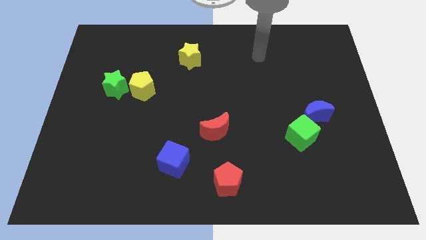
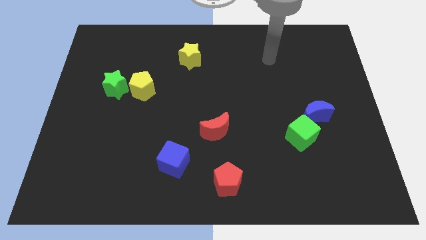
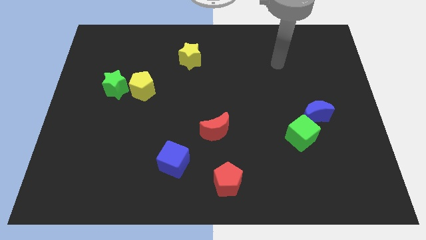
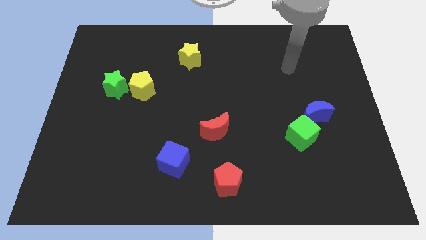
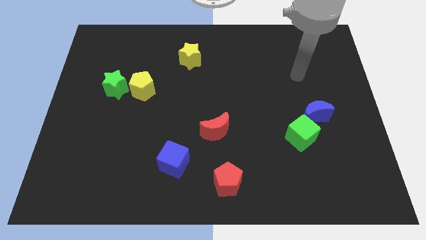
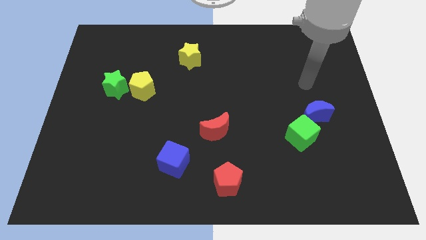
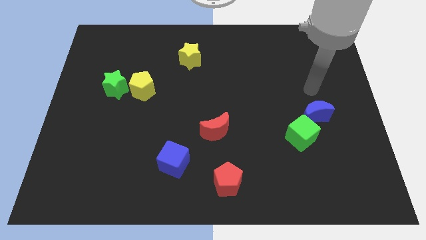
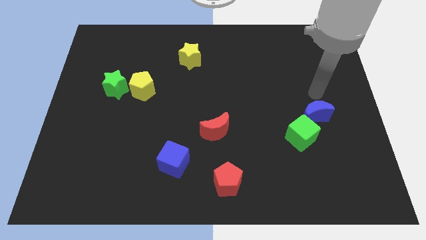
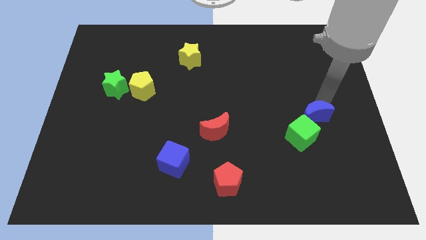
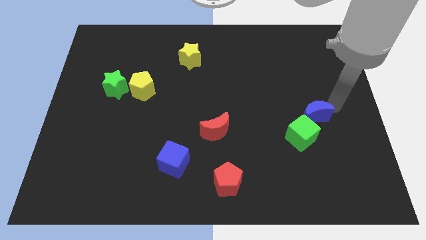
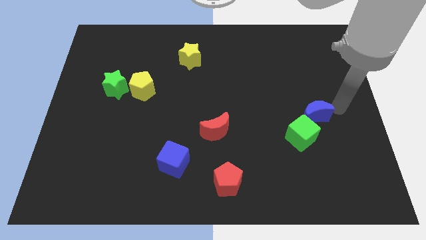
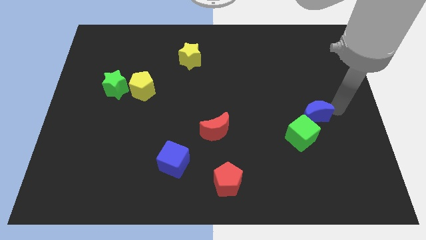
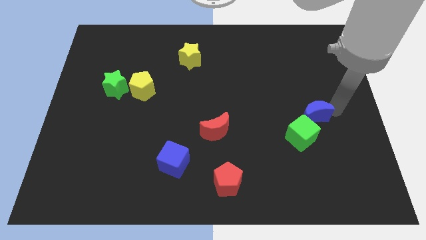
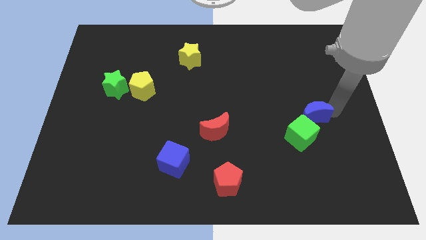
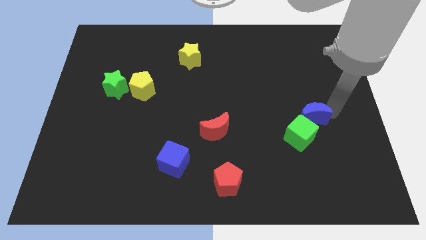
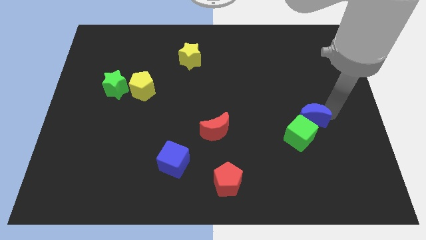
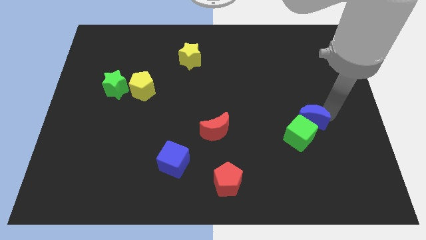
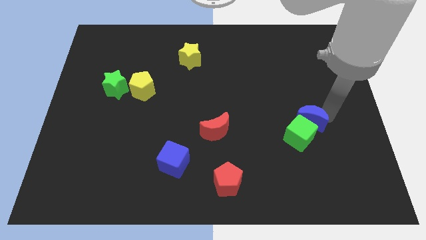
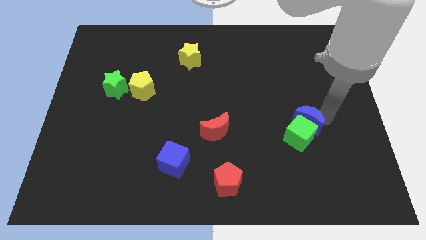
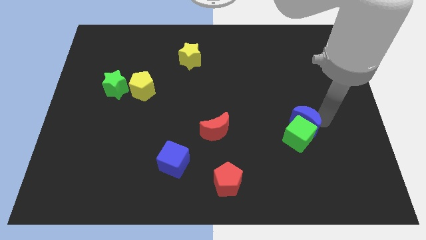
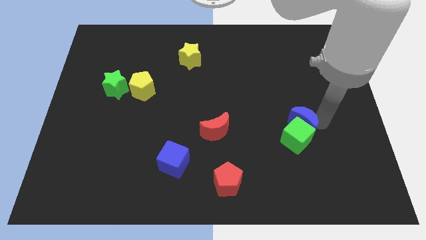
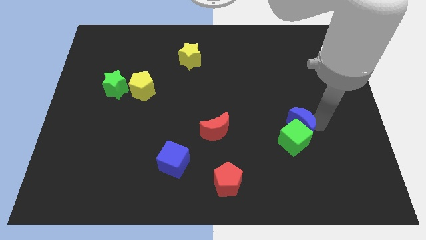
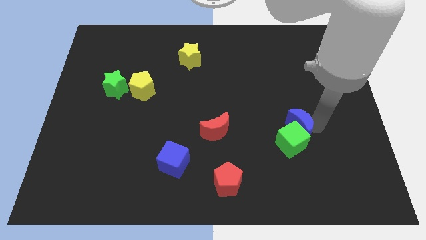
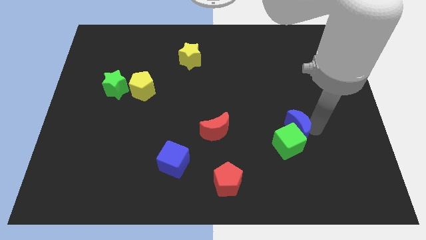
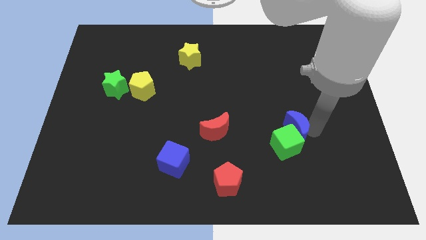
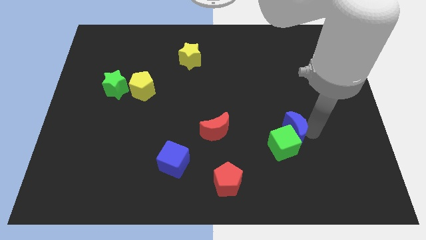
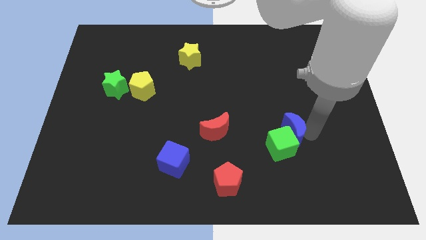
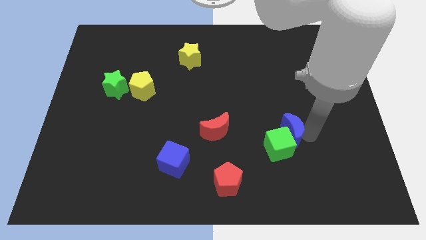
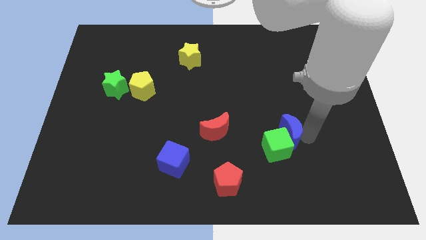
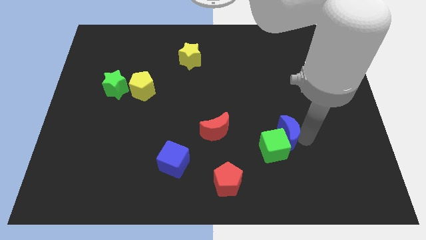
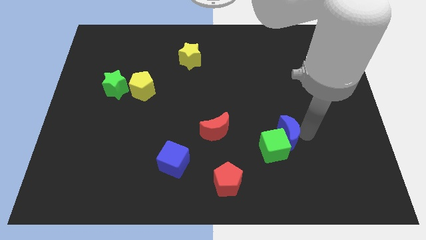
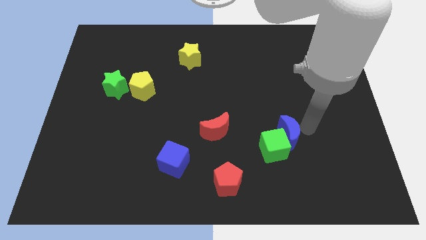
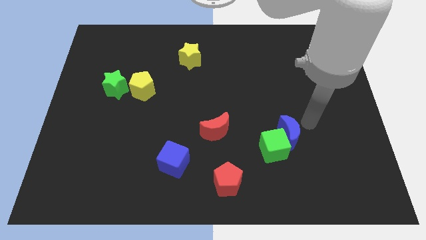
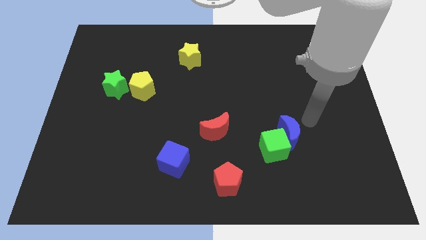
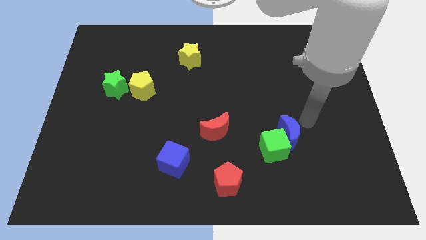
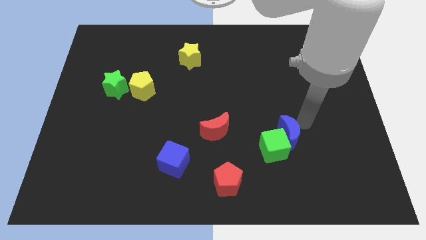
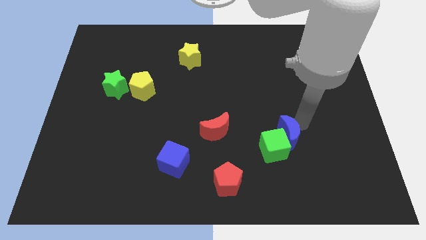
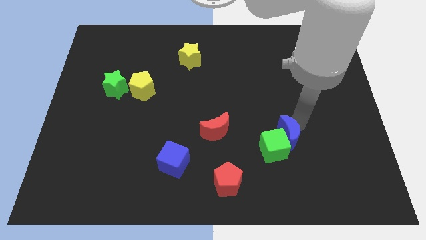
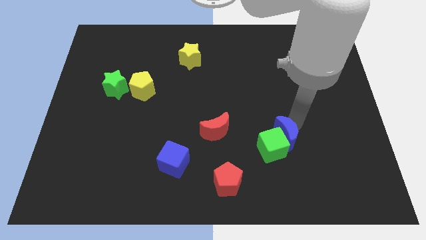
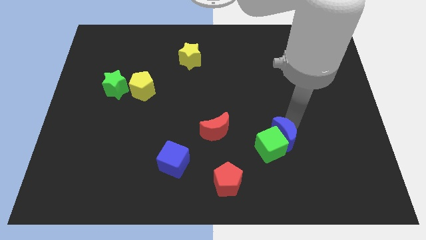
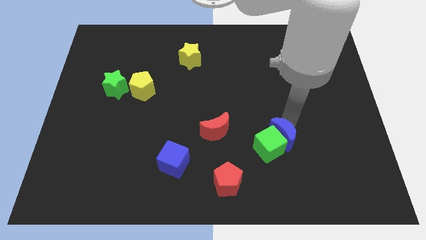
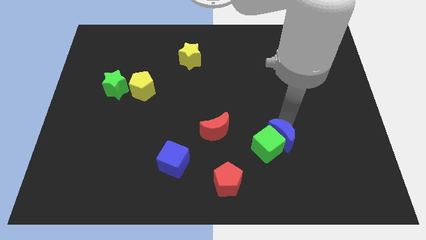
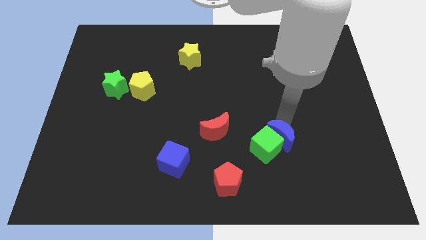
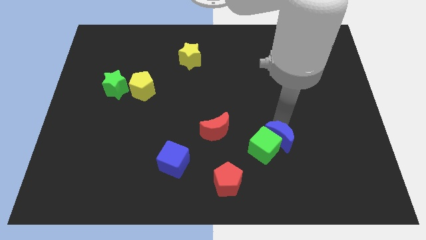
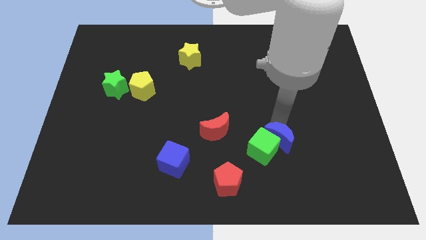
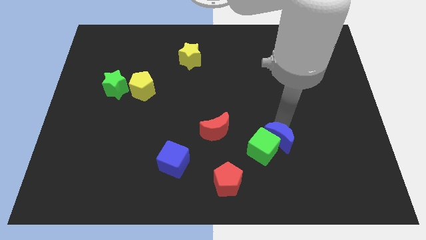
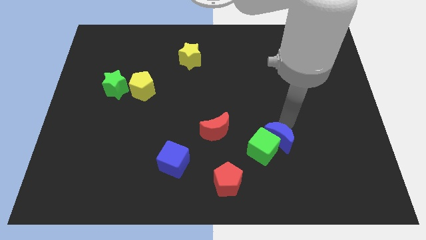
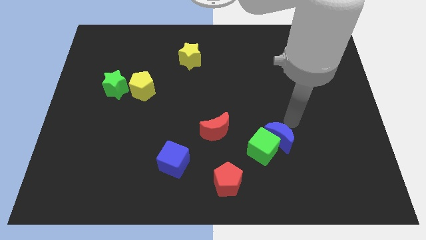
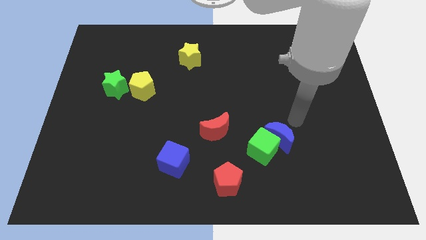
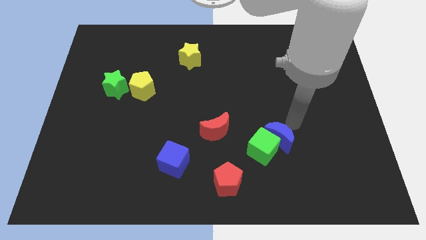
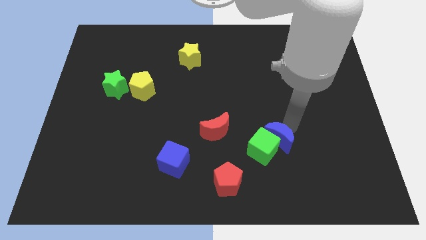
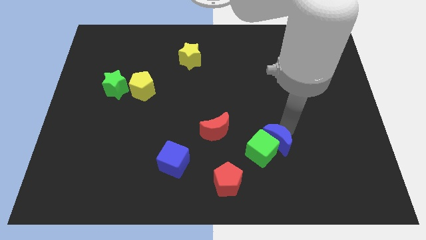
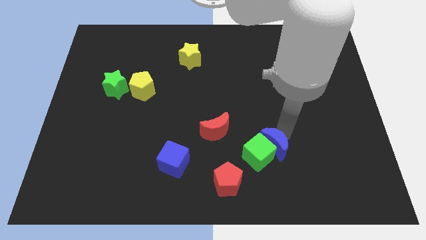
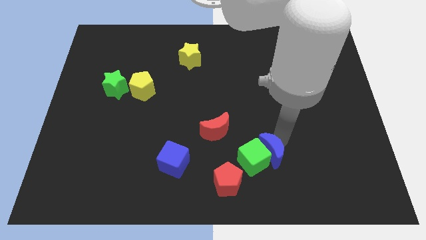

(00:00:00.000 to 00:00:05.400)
push the blue moon to the top right of the red pentagon

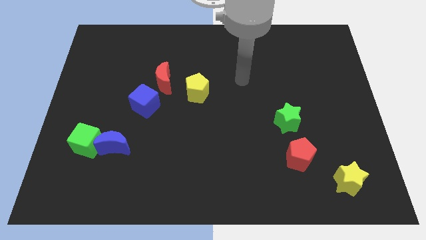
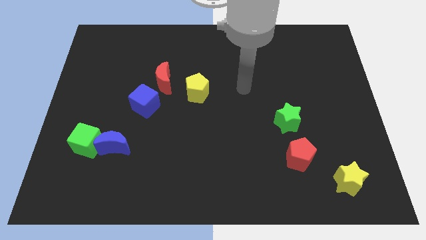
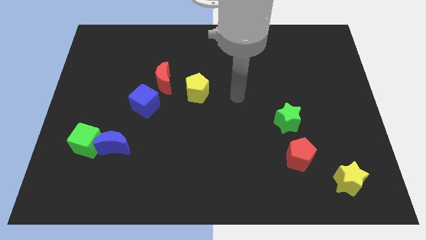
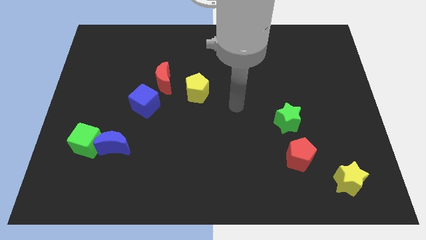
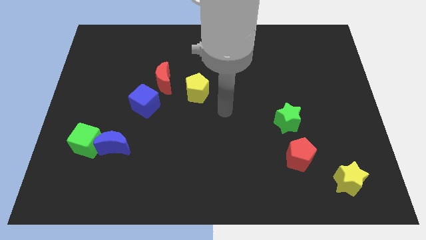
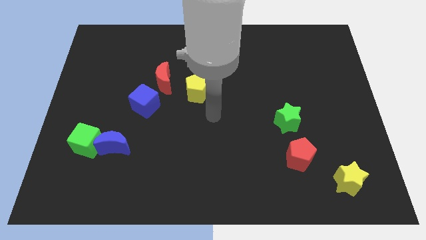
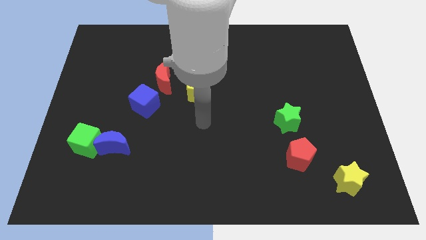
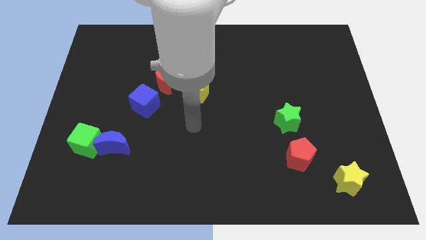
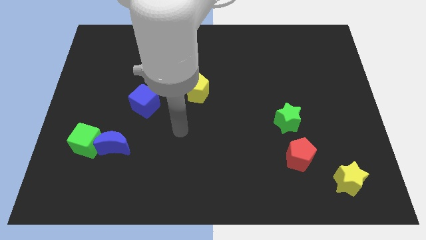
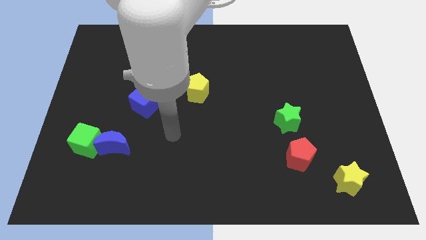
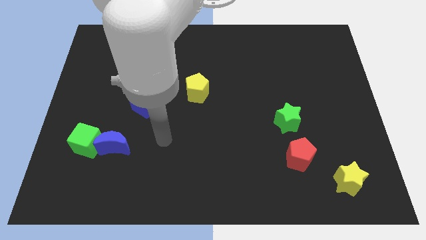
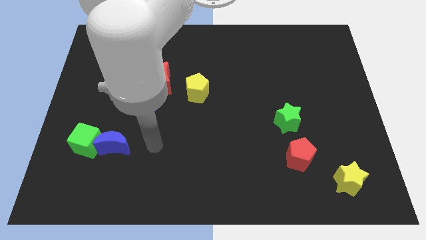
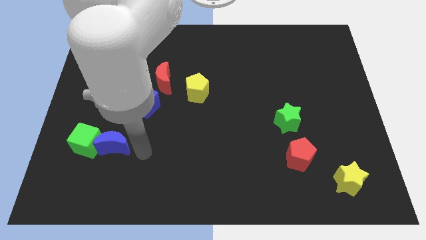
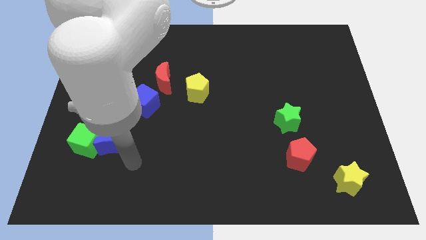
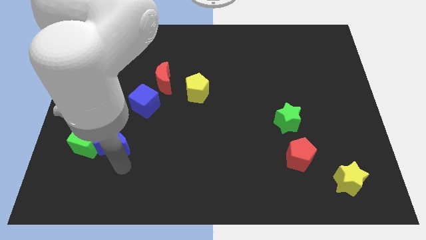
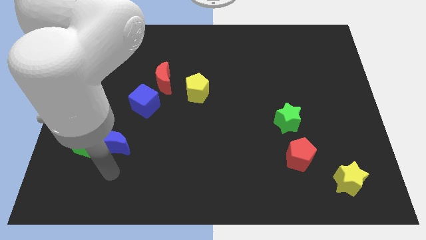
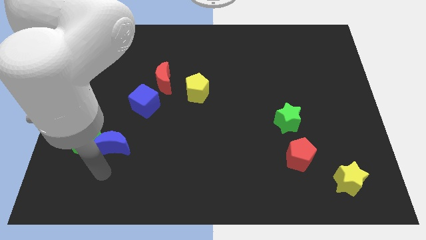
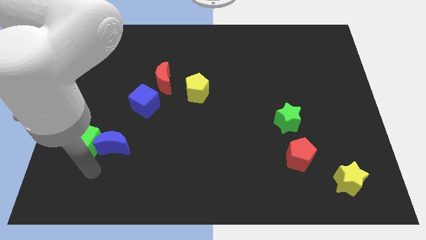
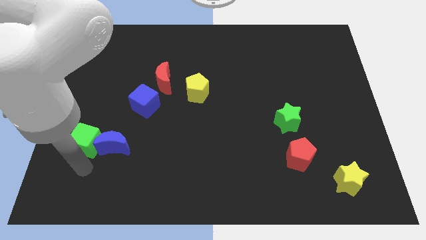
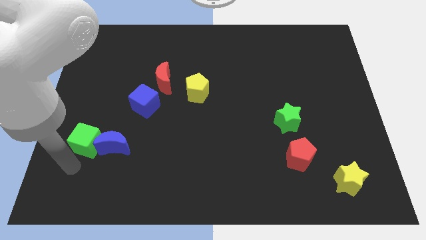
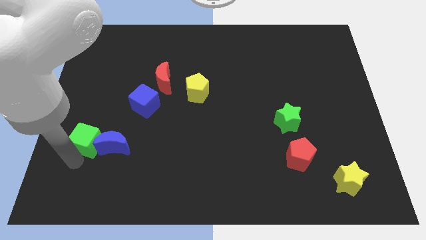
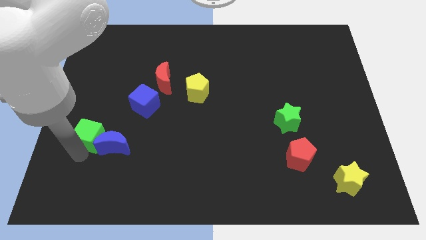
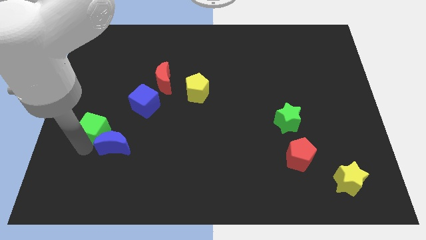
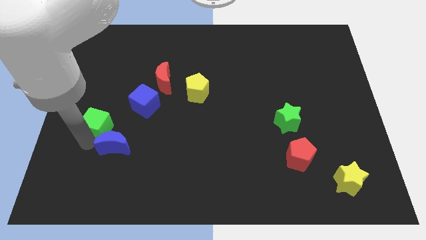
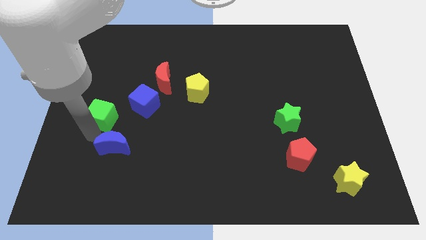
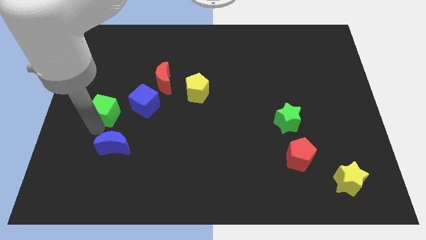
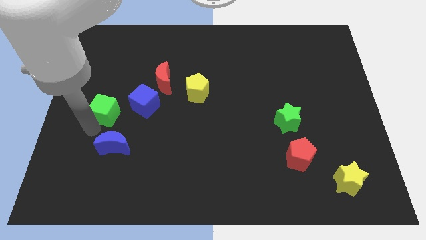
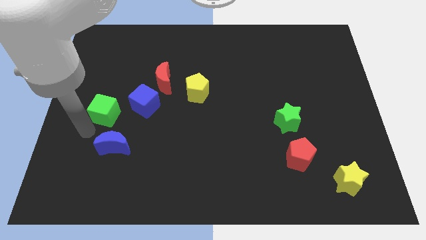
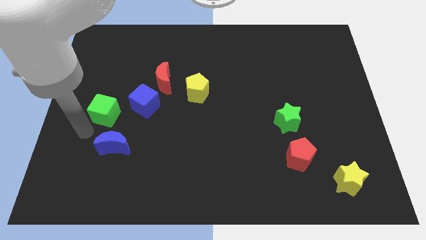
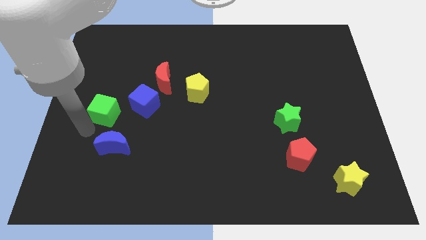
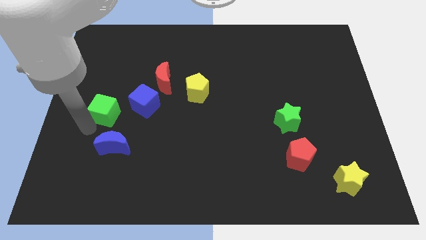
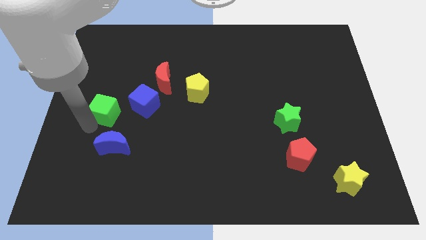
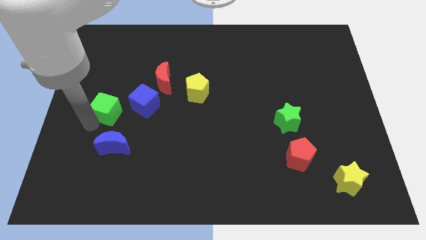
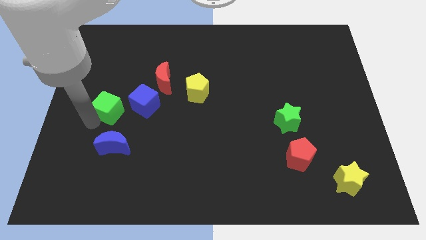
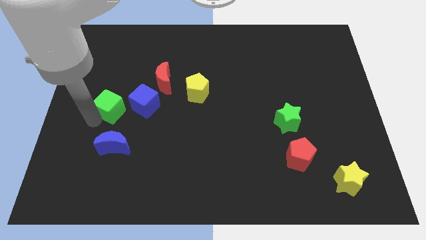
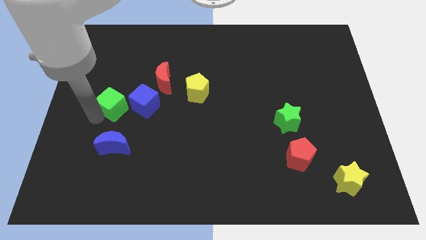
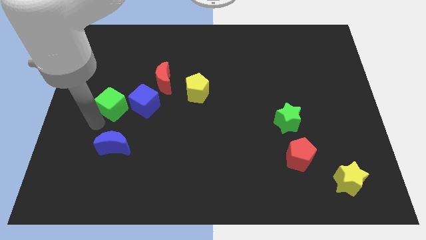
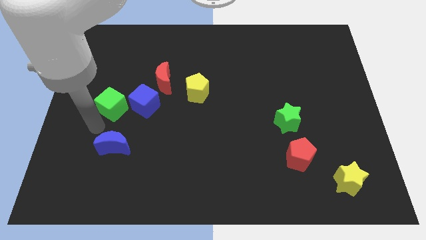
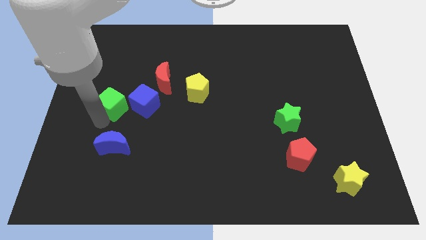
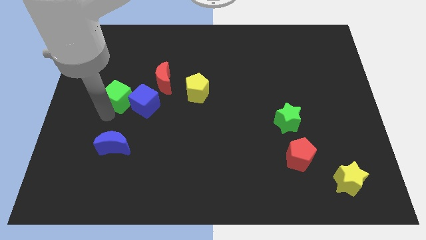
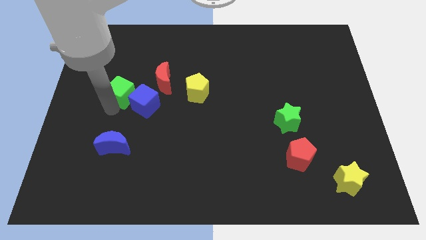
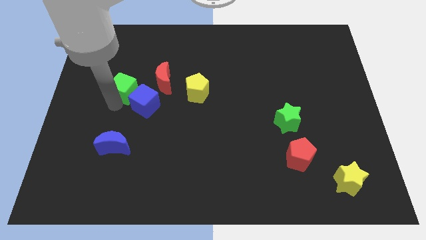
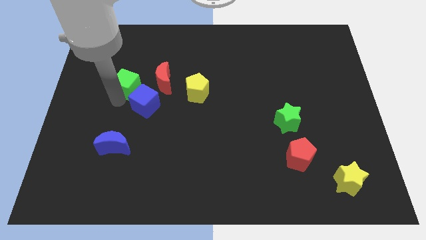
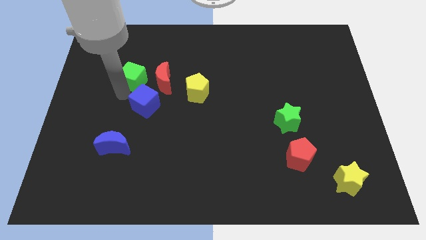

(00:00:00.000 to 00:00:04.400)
slide the green cube to the top left of the red moon
